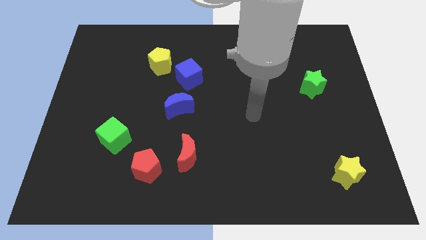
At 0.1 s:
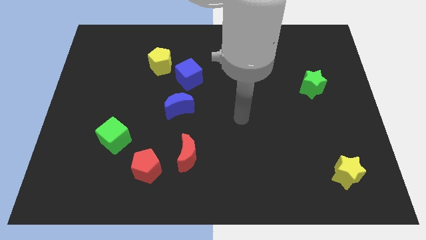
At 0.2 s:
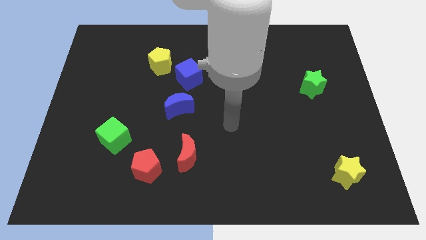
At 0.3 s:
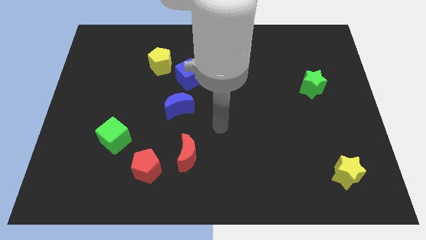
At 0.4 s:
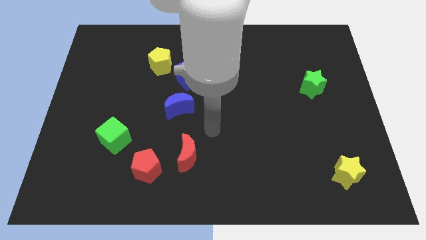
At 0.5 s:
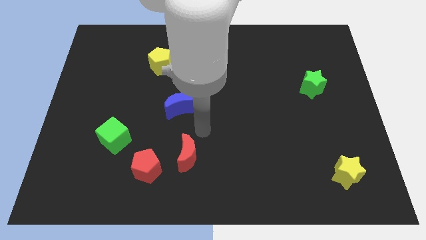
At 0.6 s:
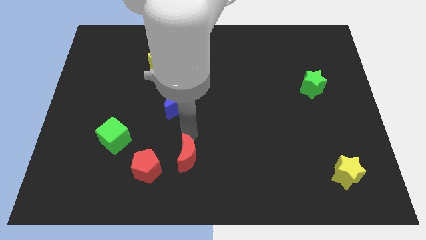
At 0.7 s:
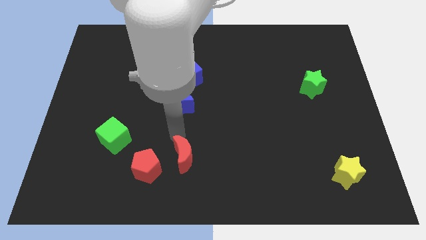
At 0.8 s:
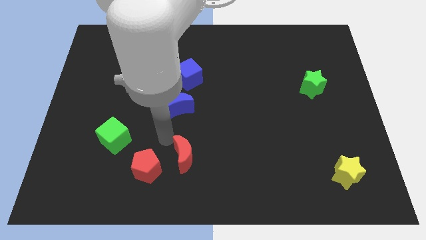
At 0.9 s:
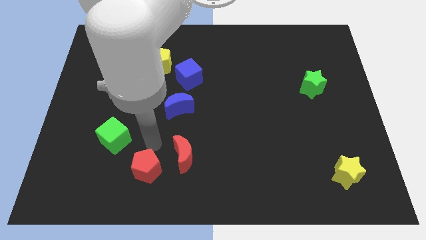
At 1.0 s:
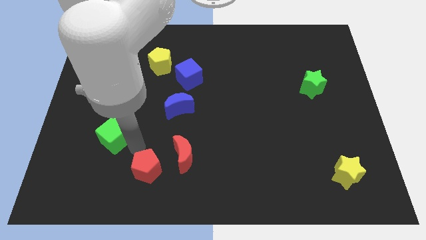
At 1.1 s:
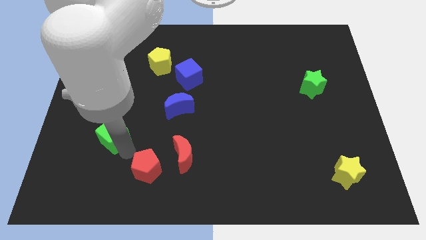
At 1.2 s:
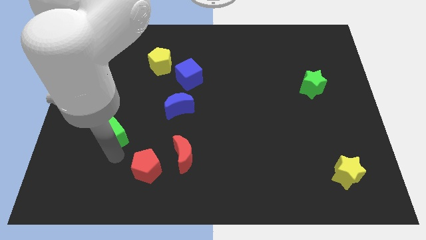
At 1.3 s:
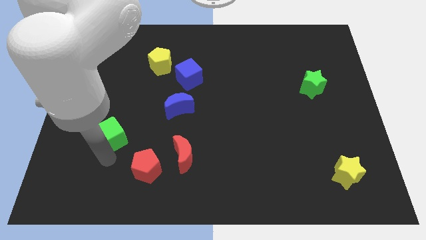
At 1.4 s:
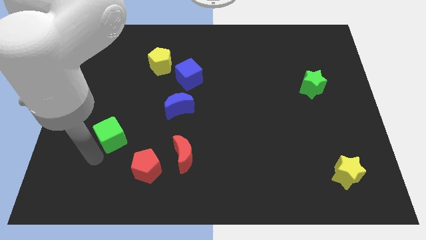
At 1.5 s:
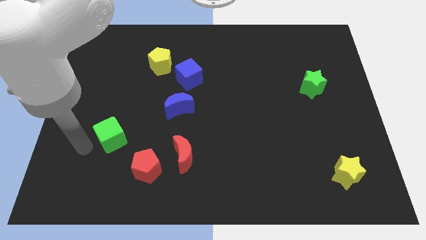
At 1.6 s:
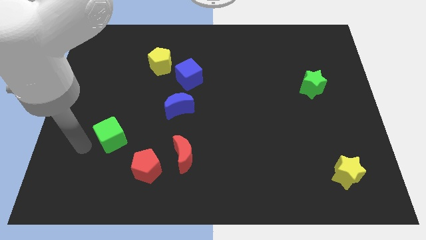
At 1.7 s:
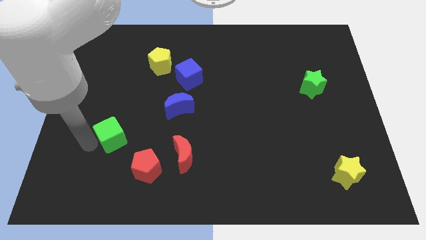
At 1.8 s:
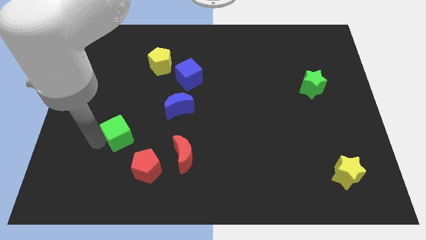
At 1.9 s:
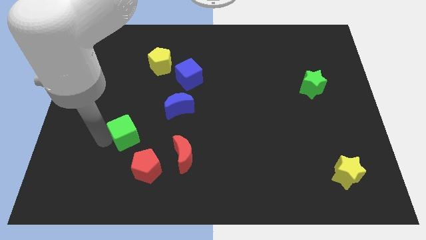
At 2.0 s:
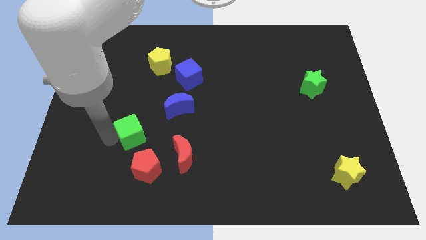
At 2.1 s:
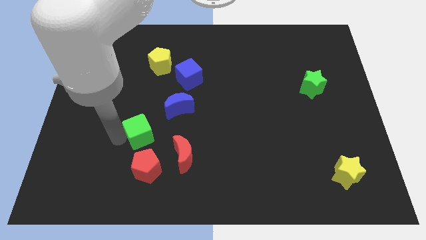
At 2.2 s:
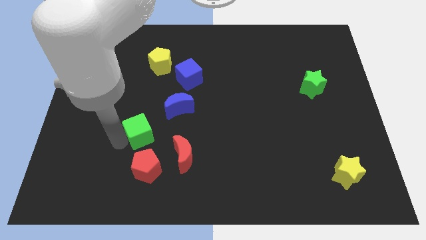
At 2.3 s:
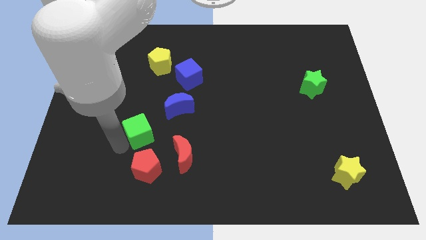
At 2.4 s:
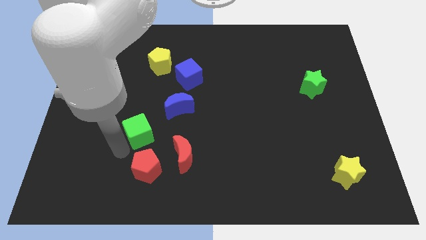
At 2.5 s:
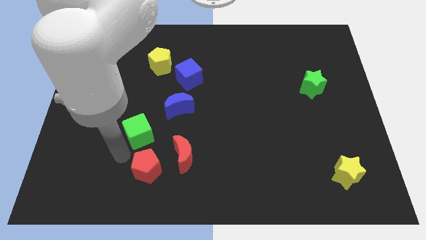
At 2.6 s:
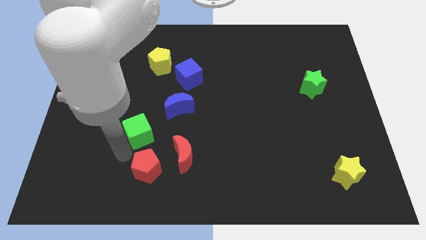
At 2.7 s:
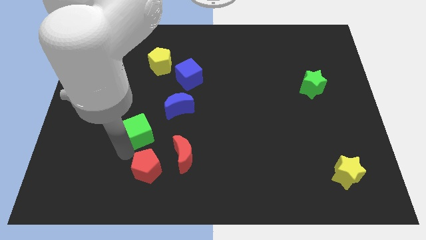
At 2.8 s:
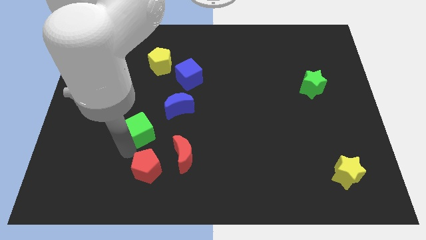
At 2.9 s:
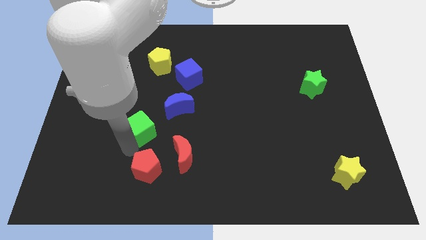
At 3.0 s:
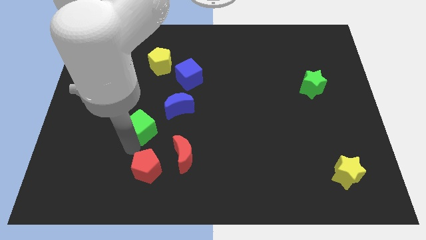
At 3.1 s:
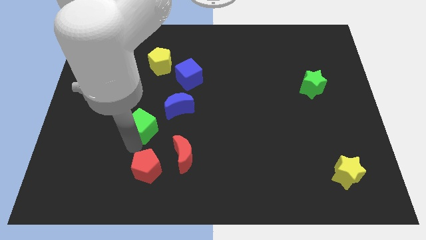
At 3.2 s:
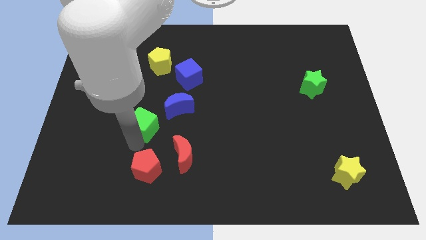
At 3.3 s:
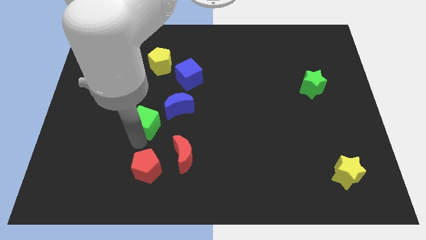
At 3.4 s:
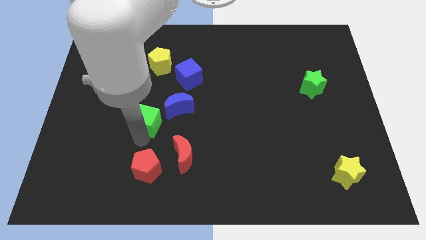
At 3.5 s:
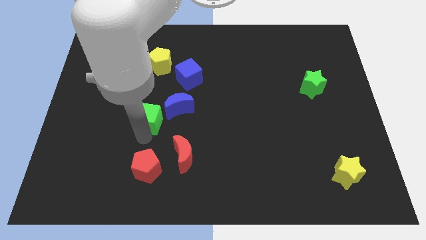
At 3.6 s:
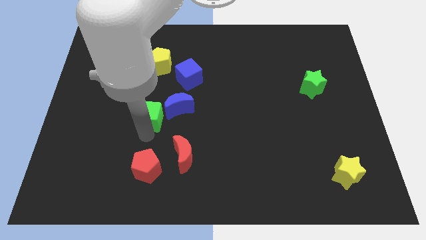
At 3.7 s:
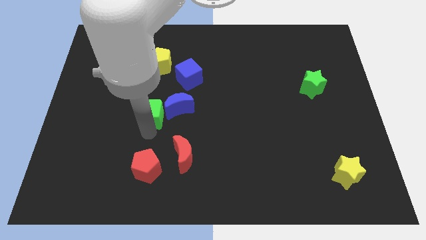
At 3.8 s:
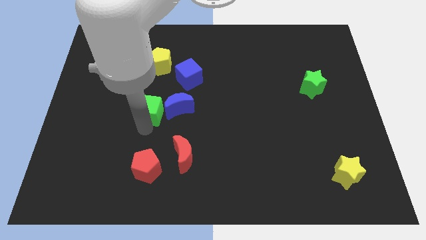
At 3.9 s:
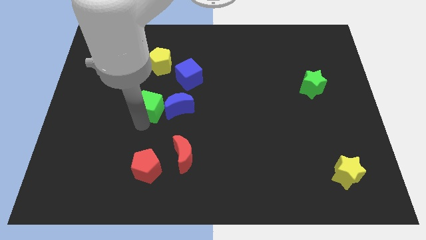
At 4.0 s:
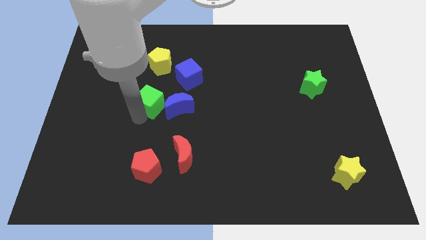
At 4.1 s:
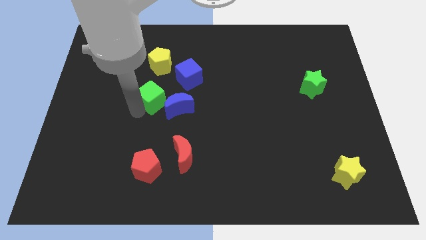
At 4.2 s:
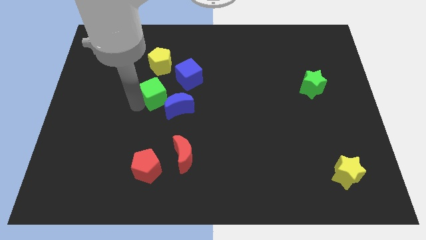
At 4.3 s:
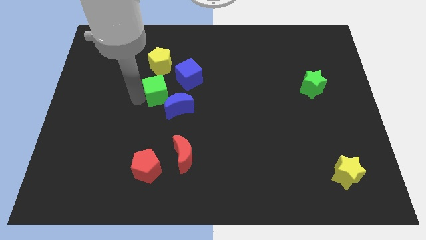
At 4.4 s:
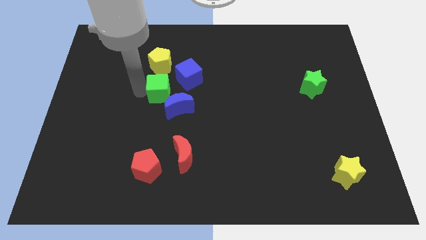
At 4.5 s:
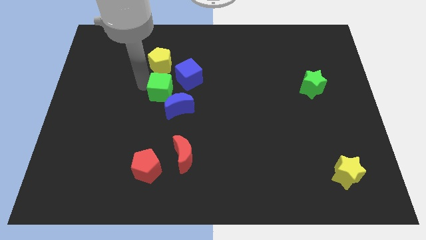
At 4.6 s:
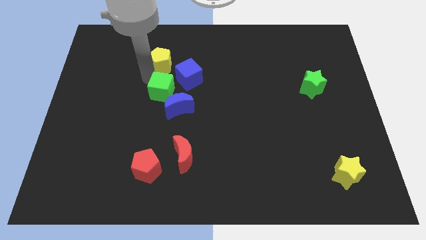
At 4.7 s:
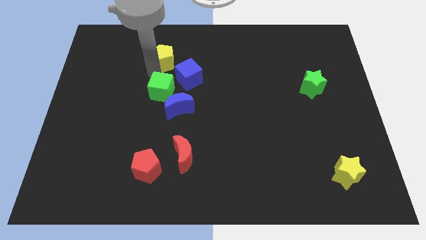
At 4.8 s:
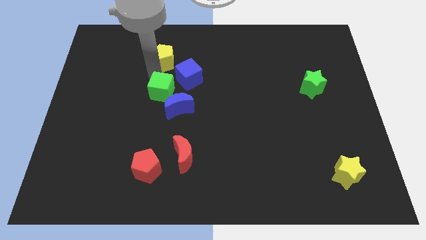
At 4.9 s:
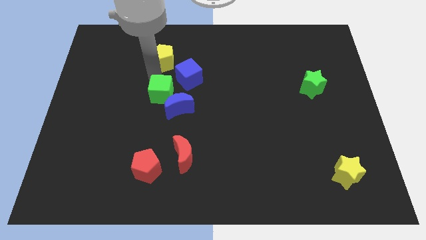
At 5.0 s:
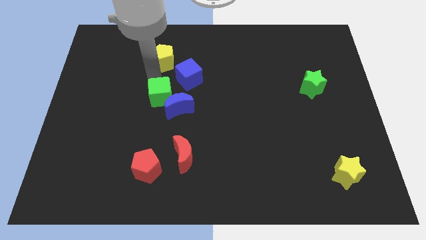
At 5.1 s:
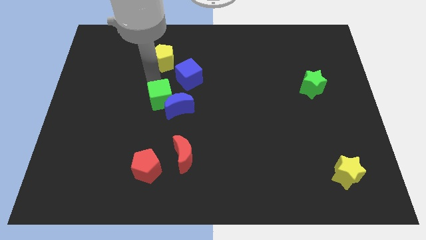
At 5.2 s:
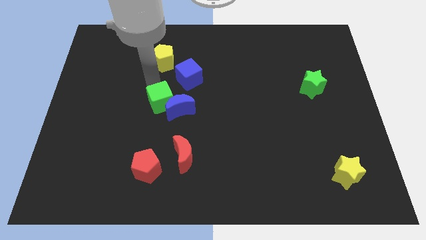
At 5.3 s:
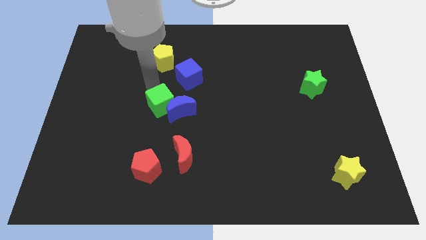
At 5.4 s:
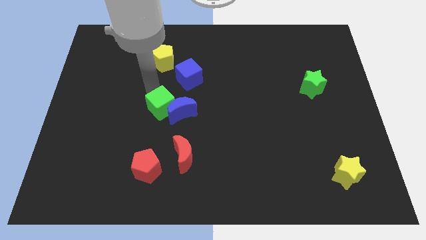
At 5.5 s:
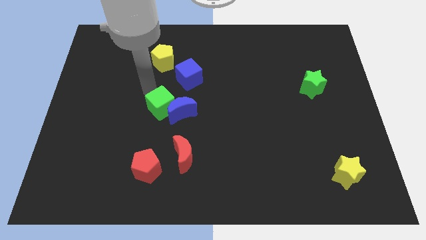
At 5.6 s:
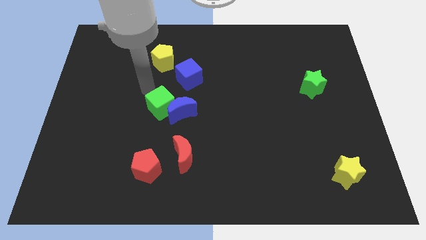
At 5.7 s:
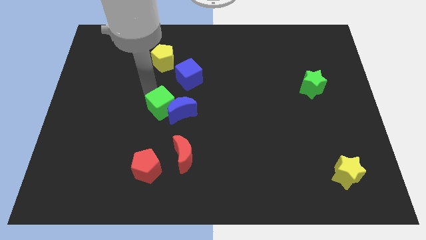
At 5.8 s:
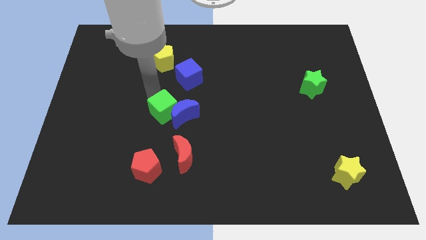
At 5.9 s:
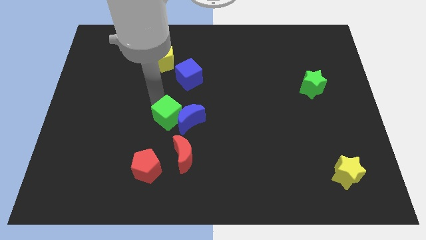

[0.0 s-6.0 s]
push the green cube to the bottom of the blue cube

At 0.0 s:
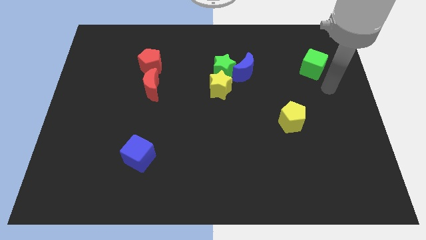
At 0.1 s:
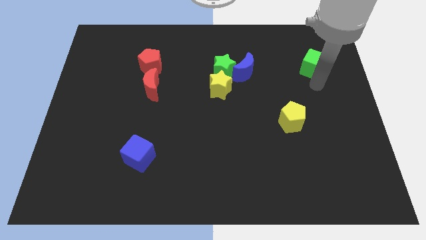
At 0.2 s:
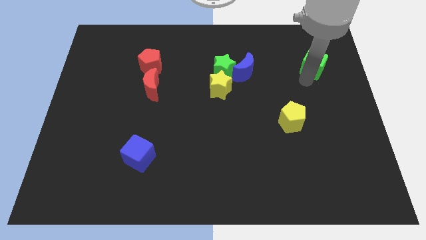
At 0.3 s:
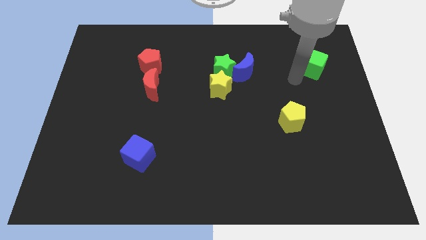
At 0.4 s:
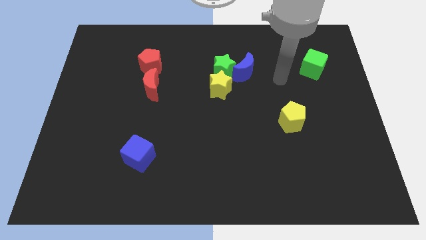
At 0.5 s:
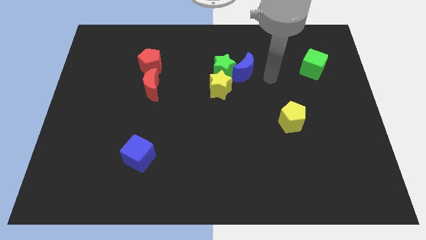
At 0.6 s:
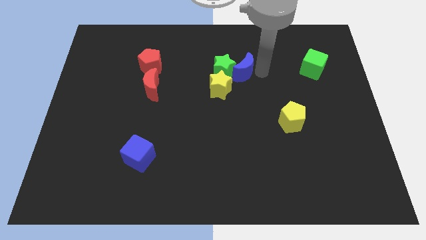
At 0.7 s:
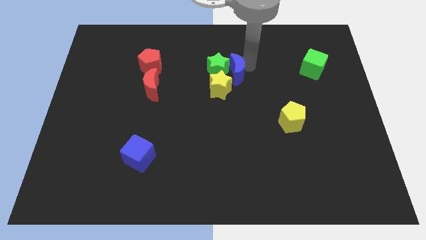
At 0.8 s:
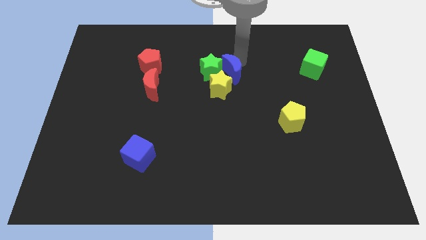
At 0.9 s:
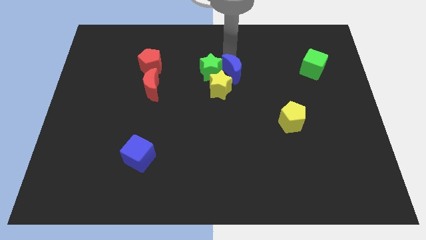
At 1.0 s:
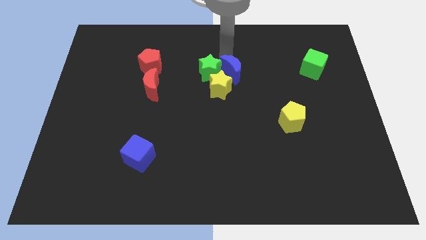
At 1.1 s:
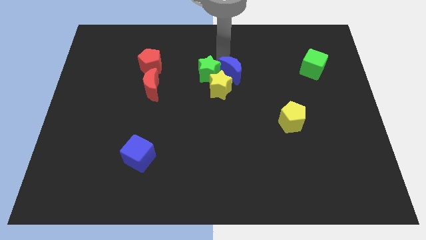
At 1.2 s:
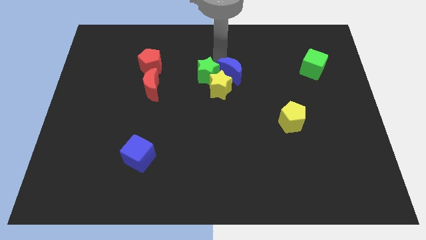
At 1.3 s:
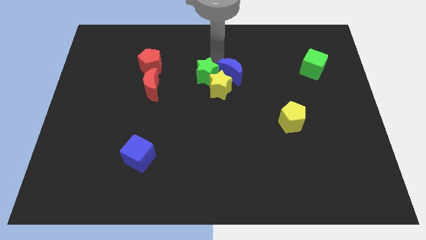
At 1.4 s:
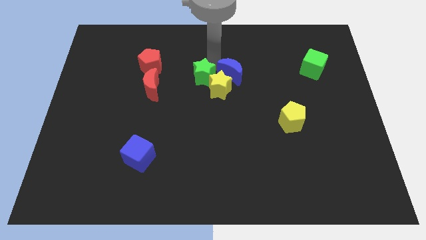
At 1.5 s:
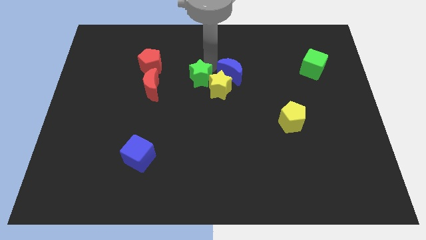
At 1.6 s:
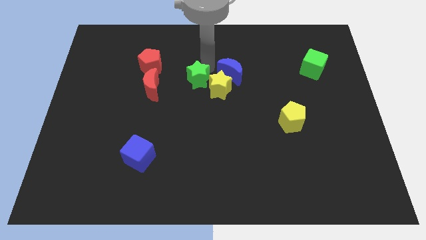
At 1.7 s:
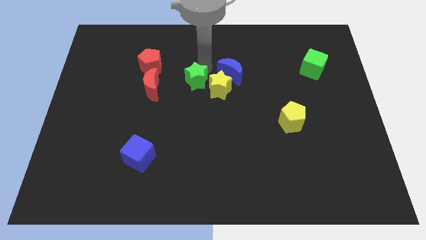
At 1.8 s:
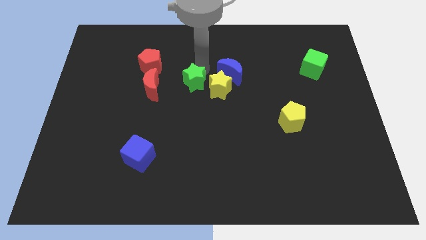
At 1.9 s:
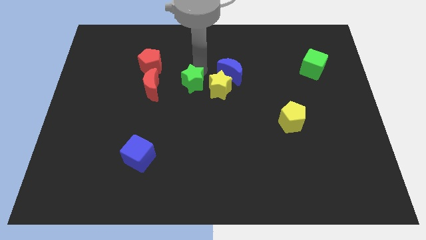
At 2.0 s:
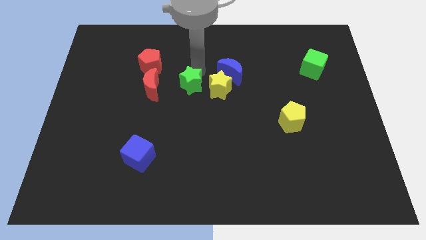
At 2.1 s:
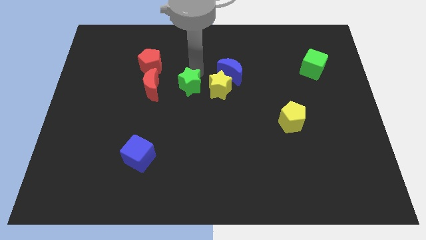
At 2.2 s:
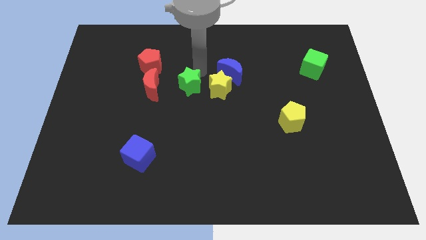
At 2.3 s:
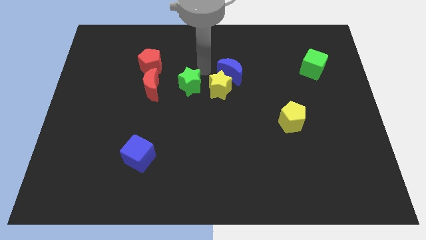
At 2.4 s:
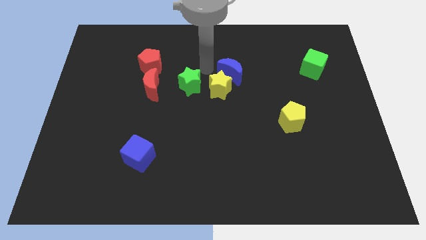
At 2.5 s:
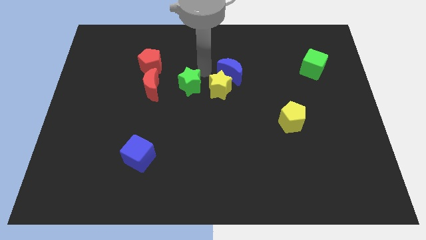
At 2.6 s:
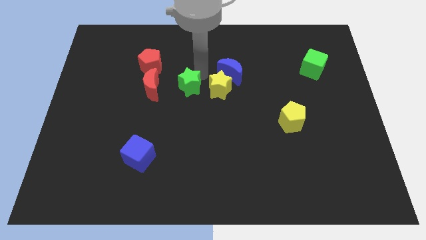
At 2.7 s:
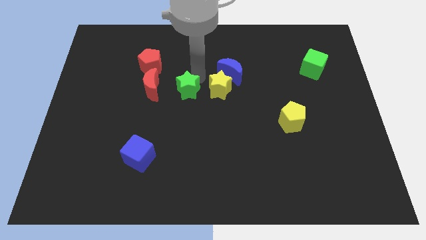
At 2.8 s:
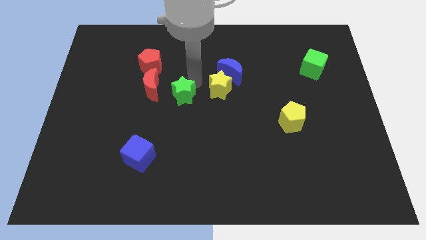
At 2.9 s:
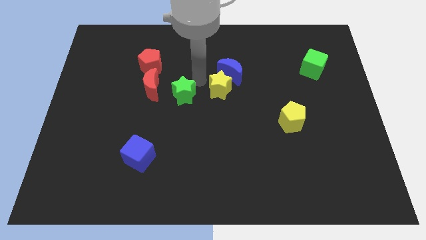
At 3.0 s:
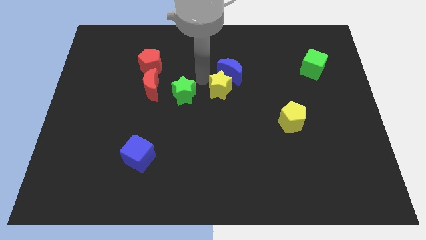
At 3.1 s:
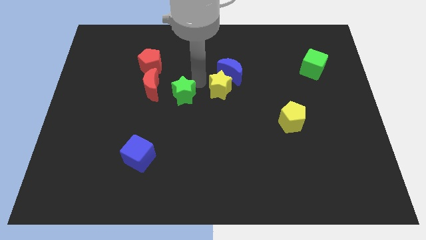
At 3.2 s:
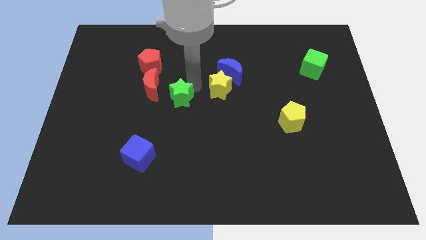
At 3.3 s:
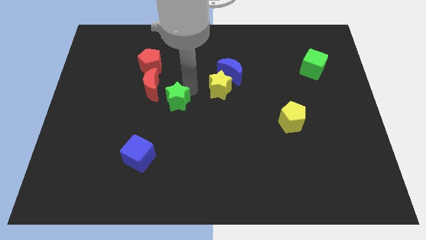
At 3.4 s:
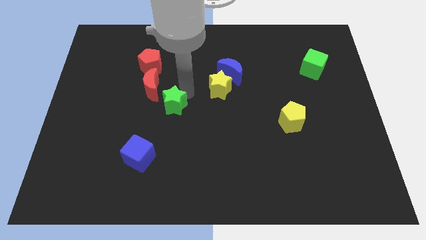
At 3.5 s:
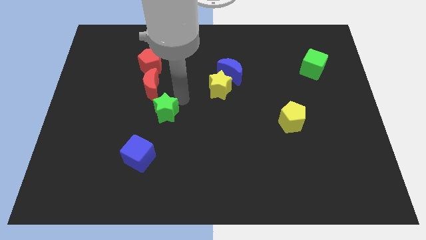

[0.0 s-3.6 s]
move the green star below the red moon
